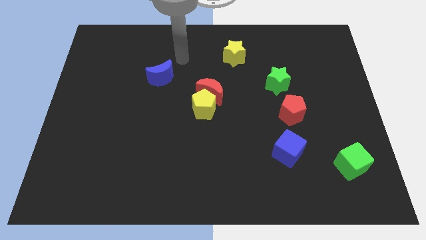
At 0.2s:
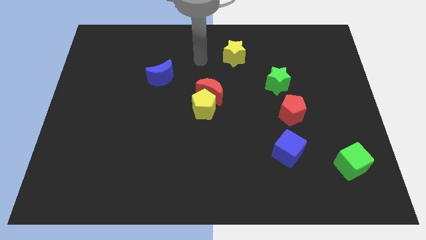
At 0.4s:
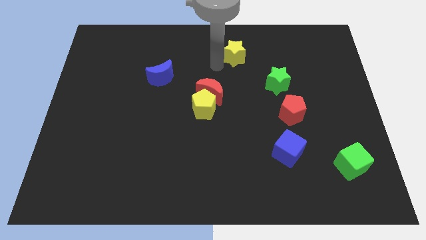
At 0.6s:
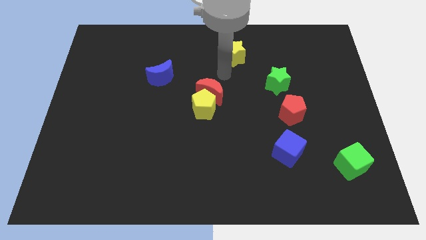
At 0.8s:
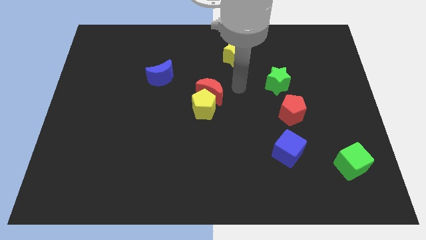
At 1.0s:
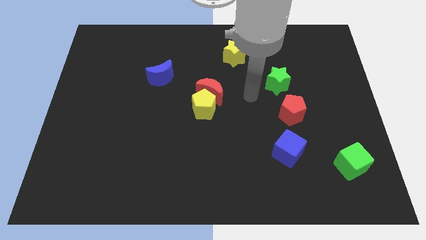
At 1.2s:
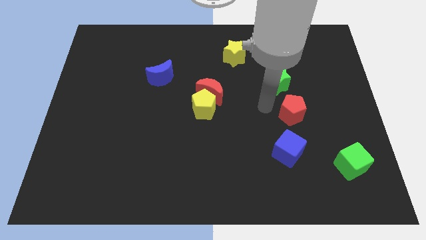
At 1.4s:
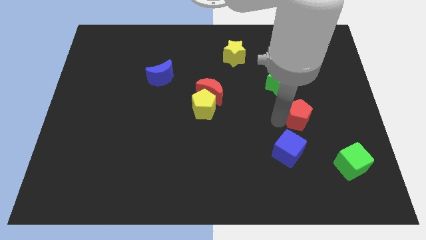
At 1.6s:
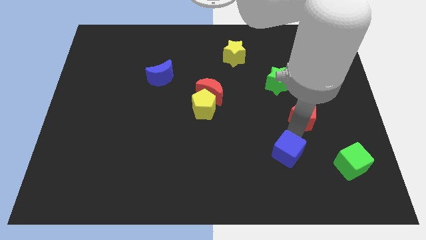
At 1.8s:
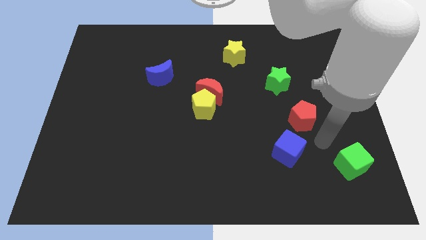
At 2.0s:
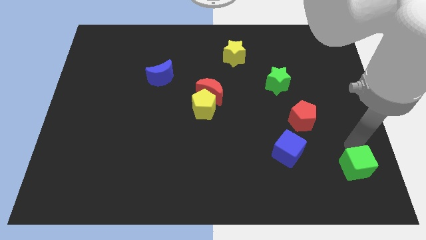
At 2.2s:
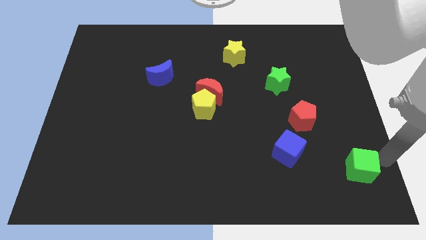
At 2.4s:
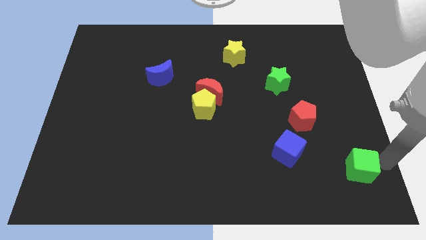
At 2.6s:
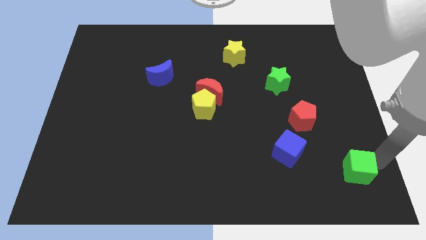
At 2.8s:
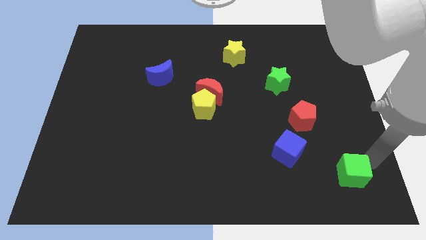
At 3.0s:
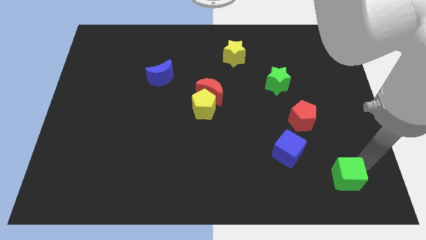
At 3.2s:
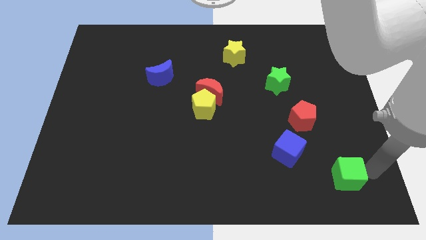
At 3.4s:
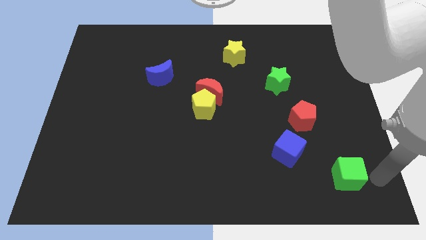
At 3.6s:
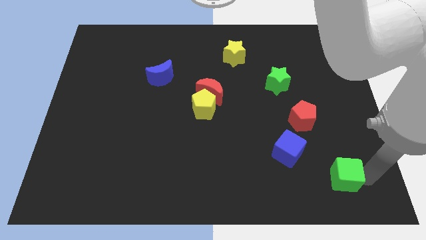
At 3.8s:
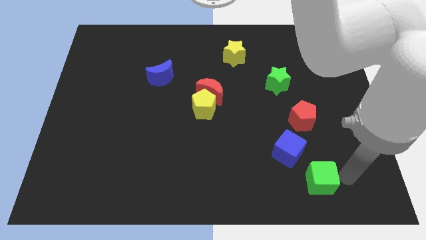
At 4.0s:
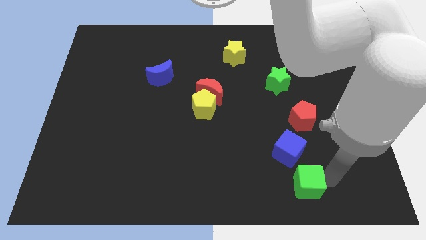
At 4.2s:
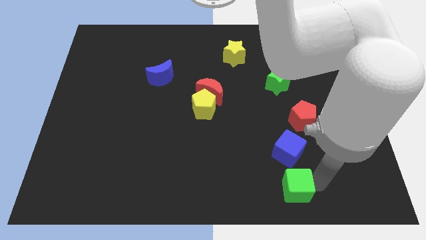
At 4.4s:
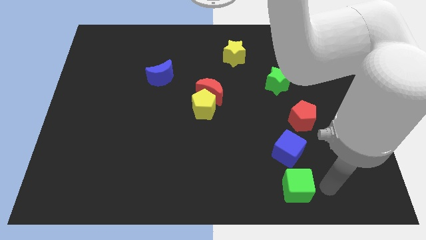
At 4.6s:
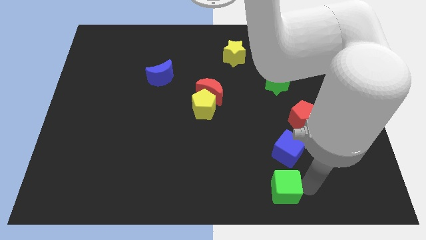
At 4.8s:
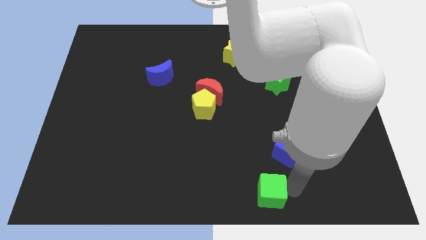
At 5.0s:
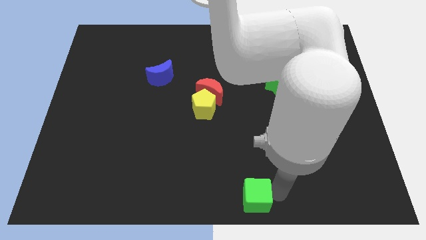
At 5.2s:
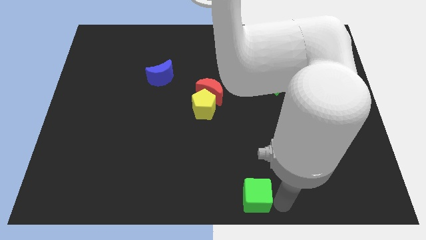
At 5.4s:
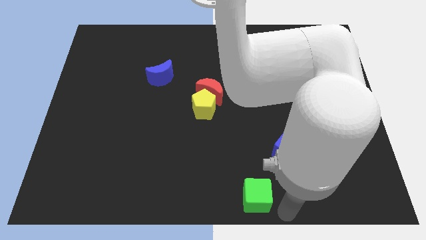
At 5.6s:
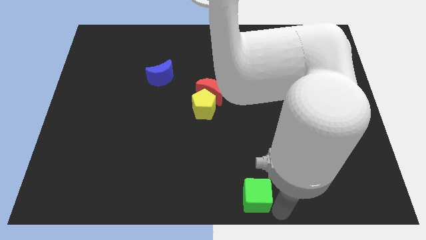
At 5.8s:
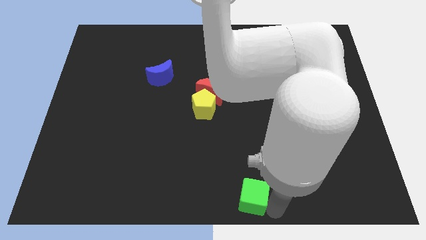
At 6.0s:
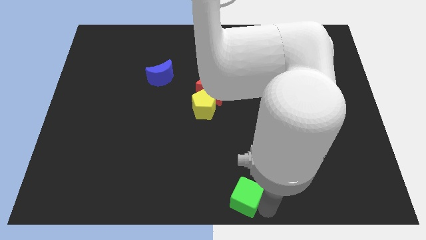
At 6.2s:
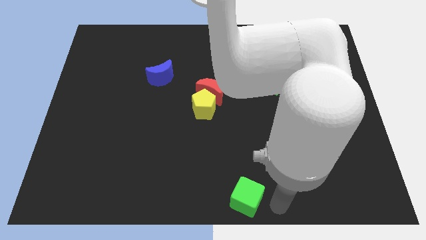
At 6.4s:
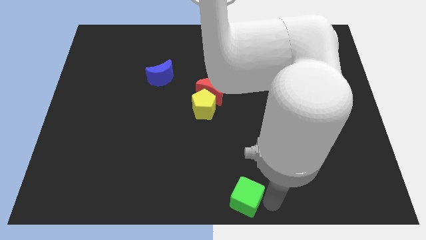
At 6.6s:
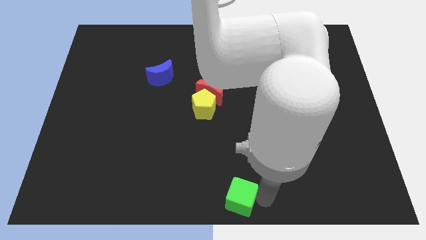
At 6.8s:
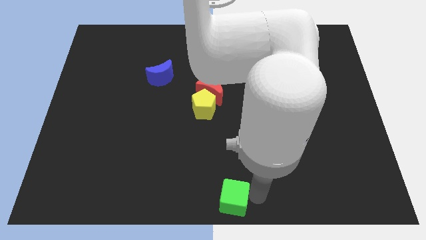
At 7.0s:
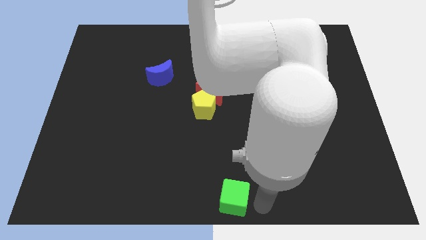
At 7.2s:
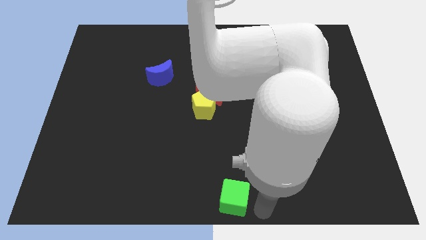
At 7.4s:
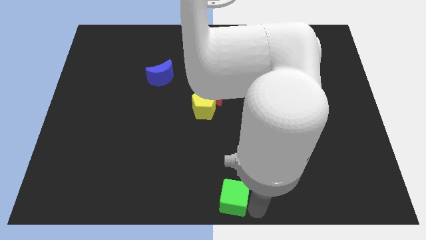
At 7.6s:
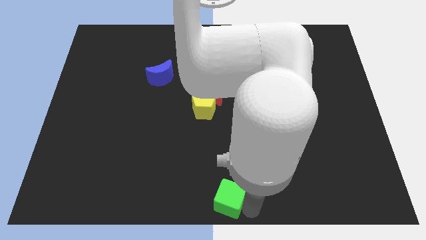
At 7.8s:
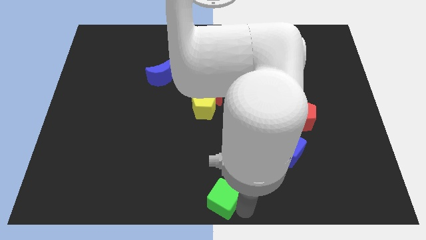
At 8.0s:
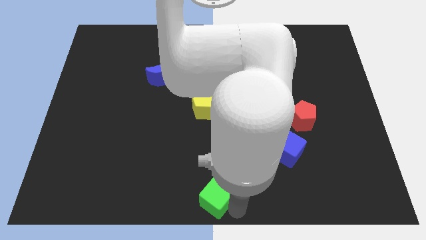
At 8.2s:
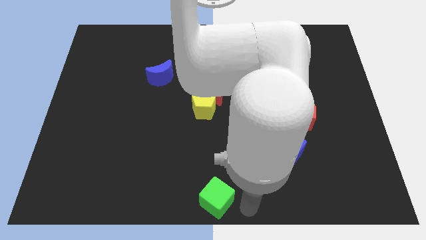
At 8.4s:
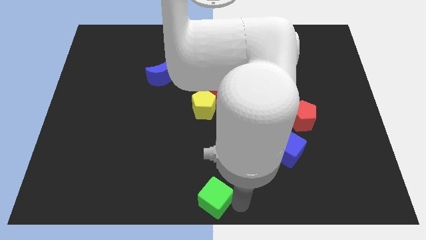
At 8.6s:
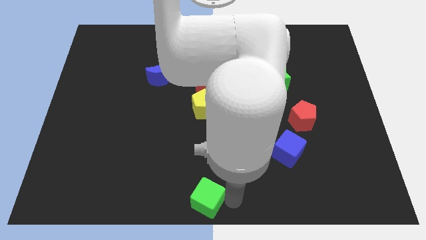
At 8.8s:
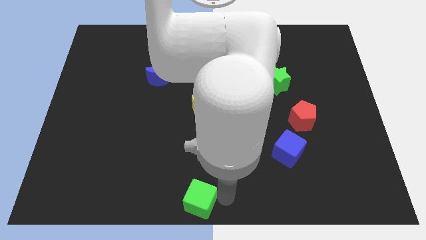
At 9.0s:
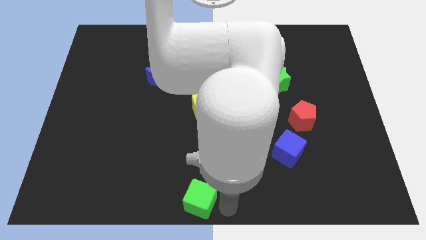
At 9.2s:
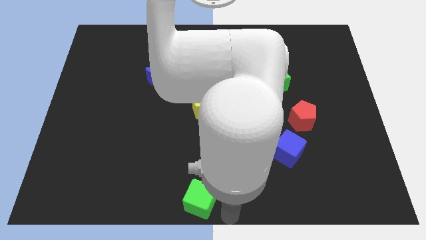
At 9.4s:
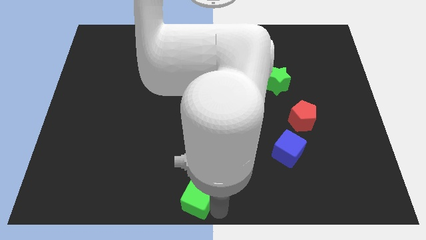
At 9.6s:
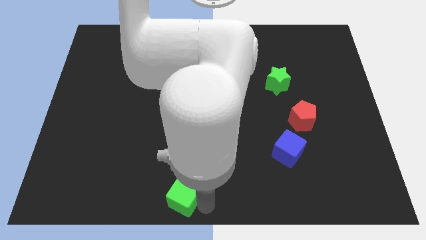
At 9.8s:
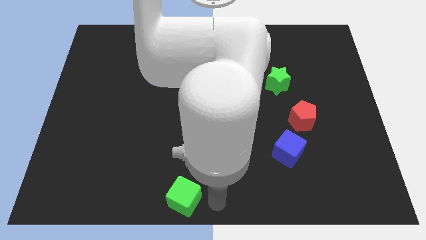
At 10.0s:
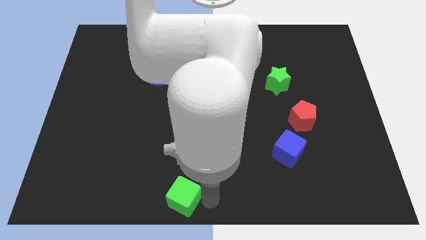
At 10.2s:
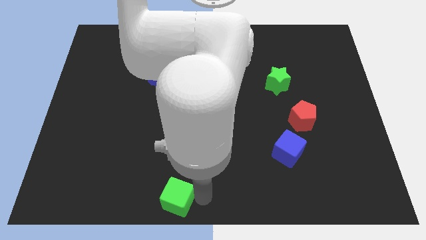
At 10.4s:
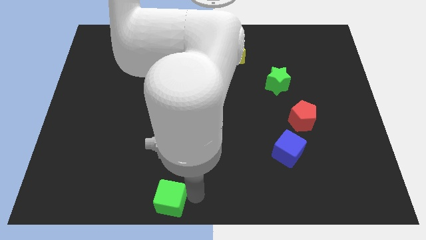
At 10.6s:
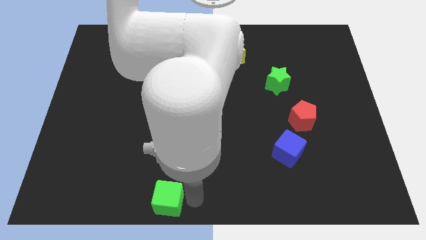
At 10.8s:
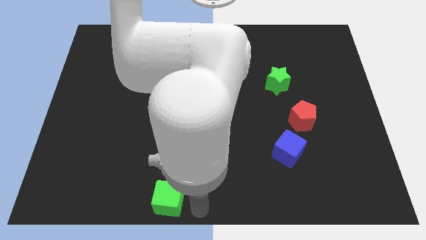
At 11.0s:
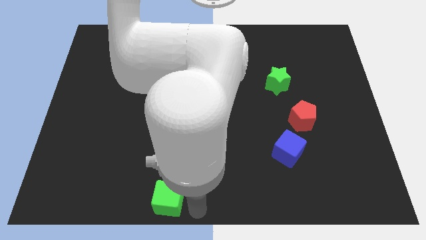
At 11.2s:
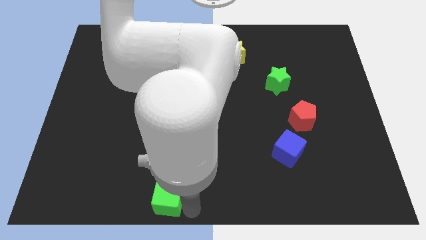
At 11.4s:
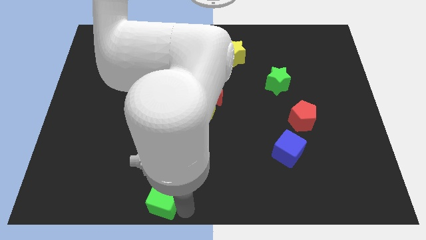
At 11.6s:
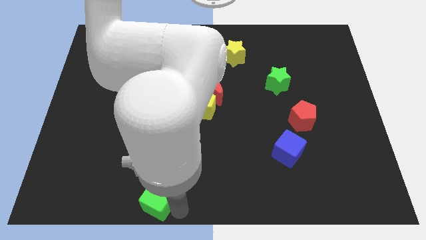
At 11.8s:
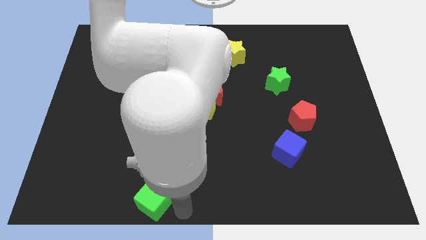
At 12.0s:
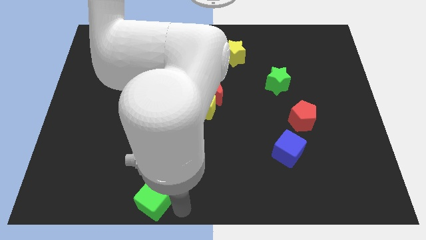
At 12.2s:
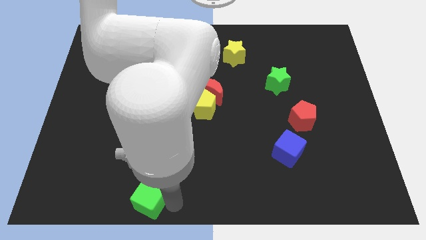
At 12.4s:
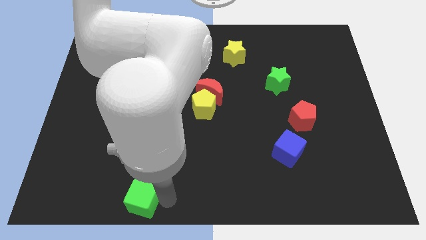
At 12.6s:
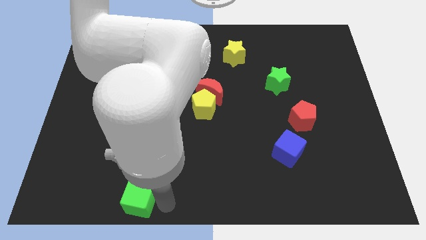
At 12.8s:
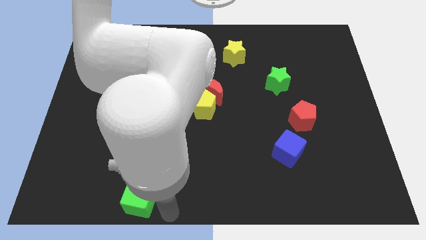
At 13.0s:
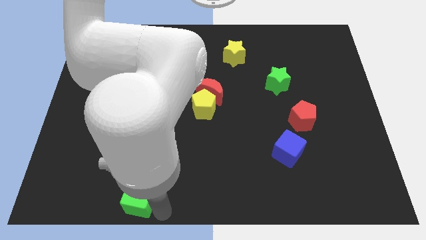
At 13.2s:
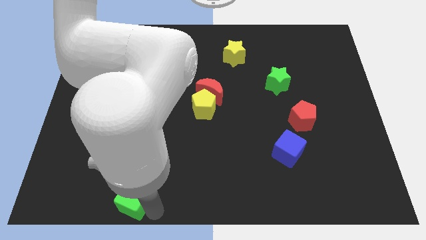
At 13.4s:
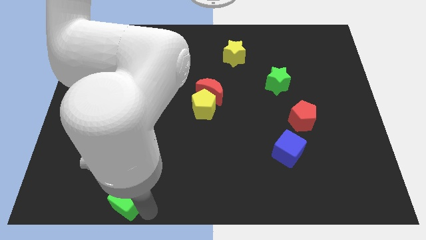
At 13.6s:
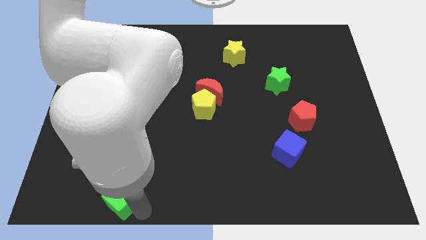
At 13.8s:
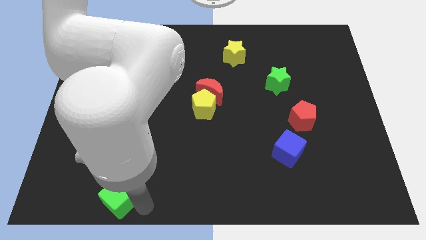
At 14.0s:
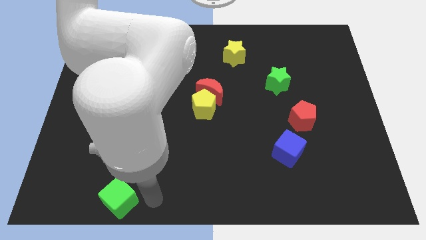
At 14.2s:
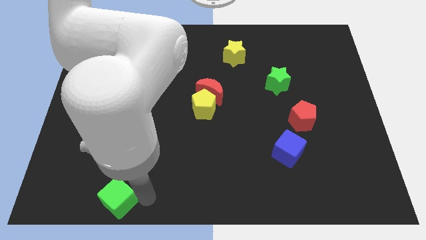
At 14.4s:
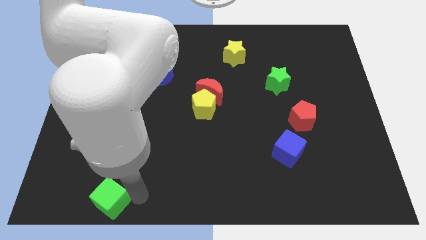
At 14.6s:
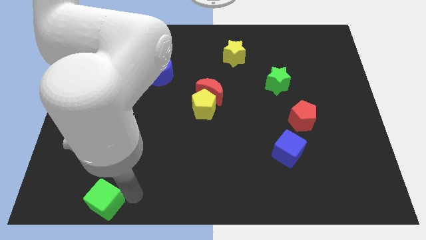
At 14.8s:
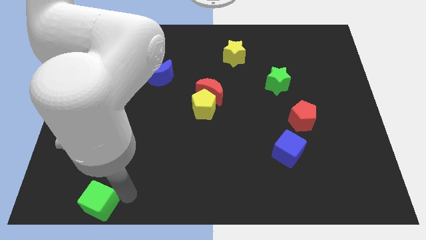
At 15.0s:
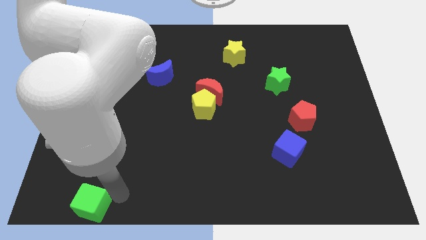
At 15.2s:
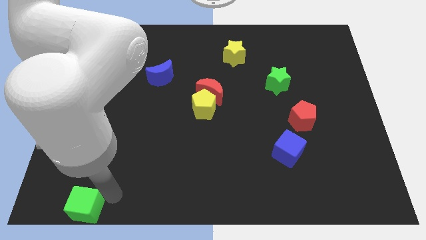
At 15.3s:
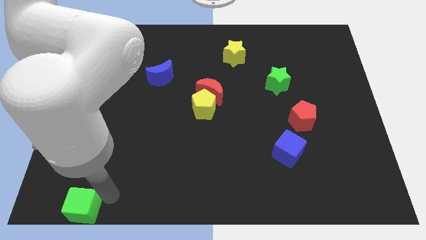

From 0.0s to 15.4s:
push the green cube to the bottom left corner
